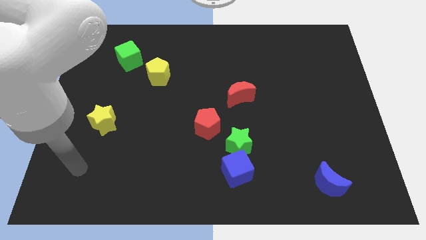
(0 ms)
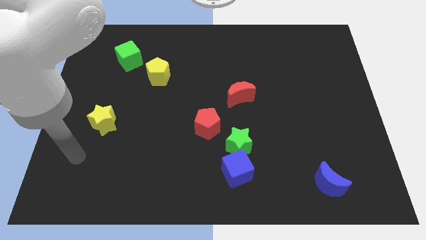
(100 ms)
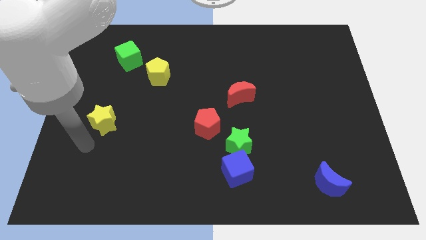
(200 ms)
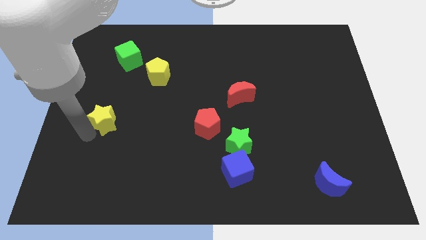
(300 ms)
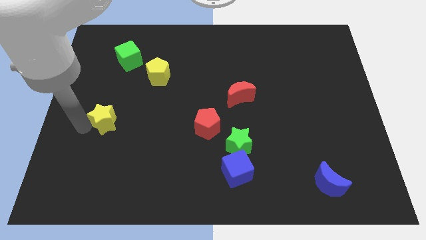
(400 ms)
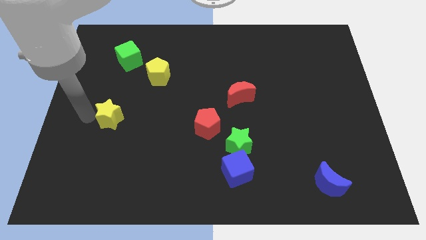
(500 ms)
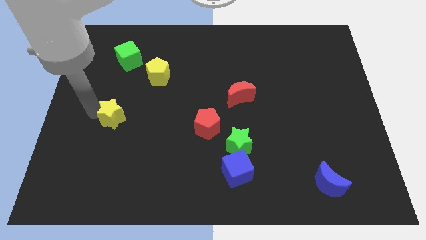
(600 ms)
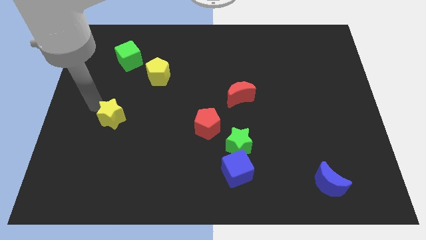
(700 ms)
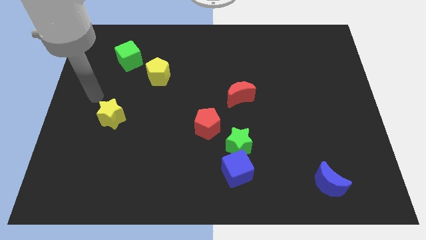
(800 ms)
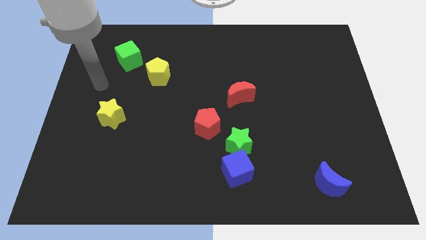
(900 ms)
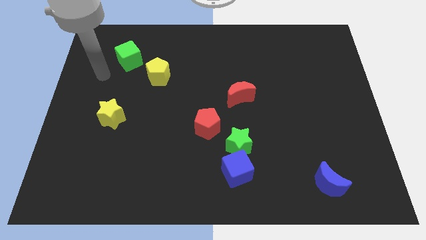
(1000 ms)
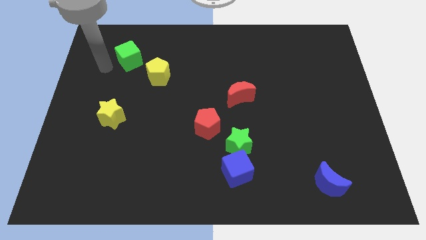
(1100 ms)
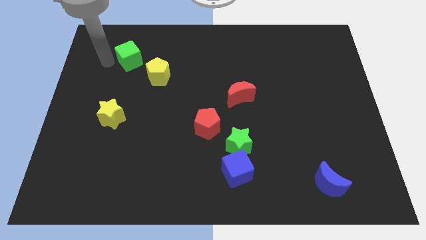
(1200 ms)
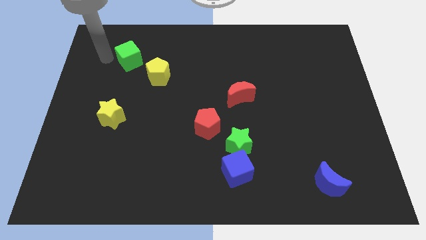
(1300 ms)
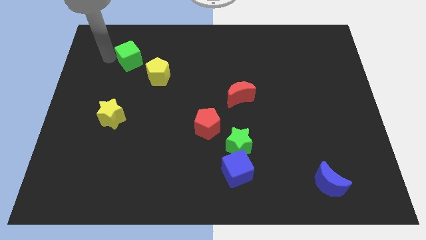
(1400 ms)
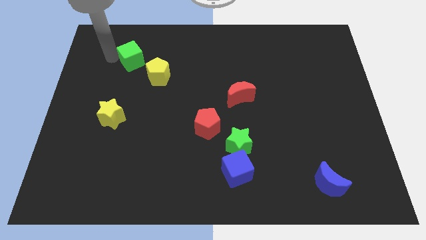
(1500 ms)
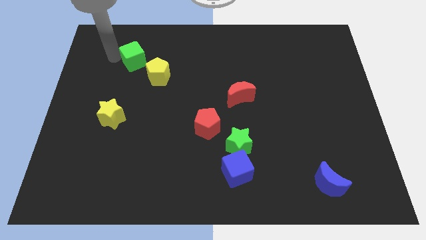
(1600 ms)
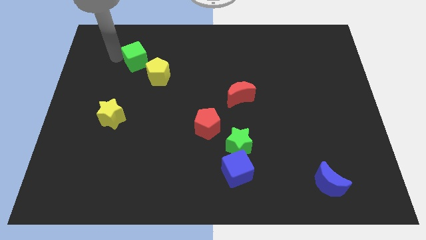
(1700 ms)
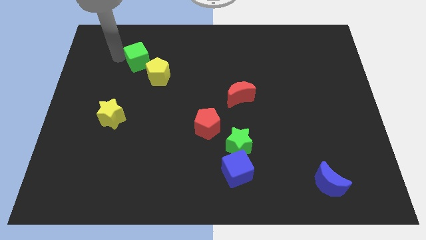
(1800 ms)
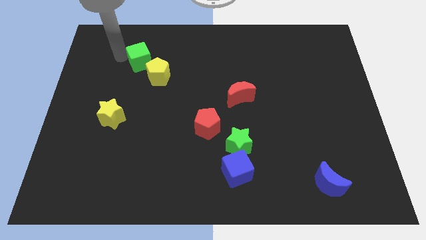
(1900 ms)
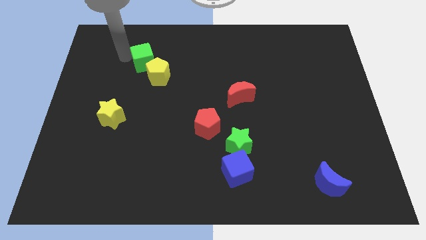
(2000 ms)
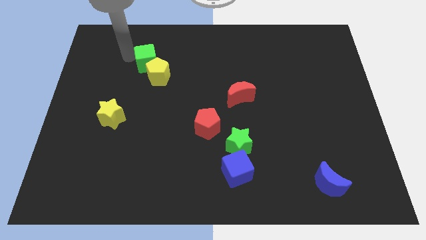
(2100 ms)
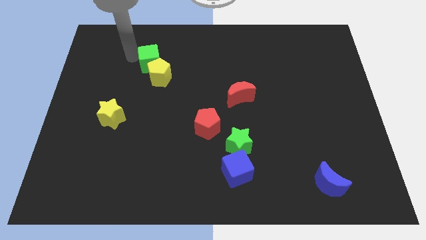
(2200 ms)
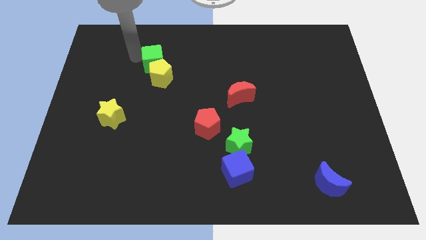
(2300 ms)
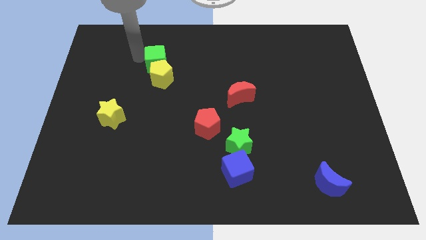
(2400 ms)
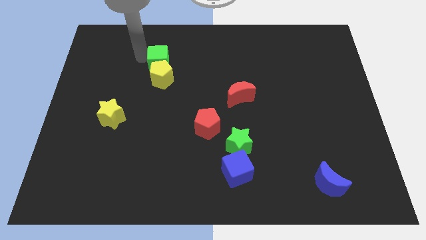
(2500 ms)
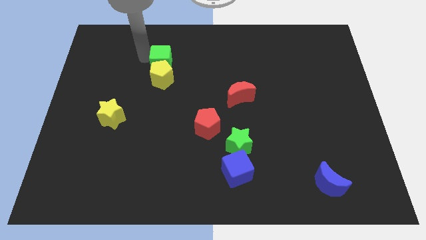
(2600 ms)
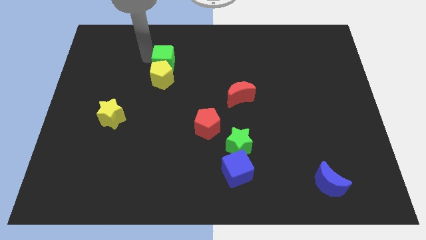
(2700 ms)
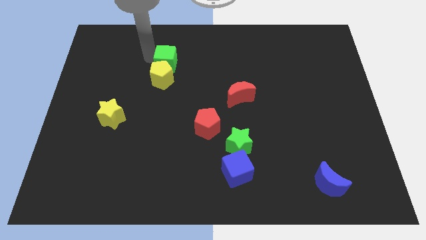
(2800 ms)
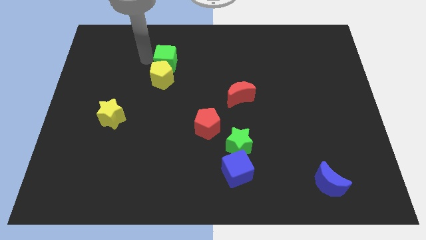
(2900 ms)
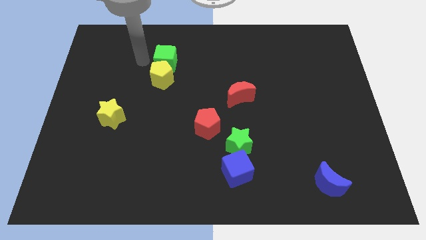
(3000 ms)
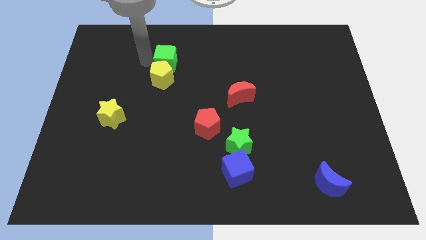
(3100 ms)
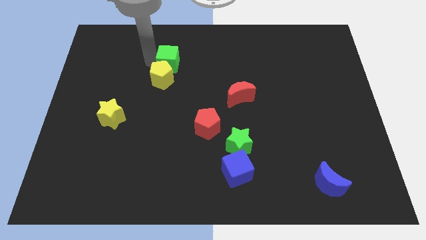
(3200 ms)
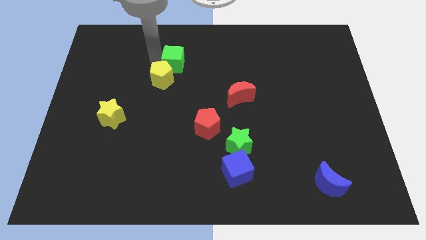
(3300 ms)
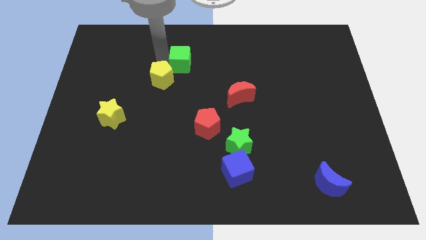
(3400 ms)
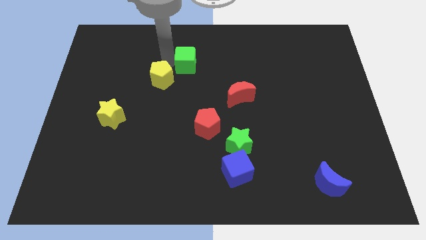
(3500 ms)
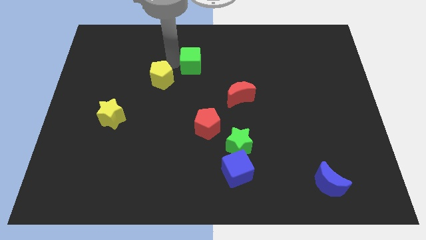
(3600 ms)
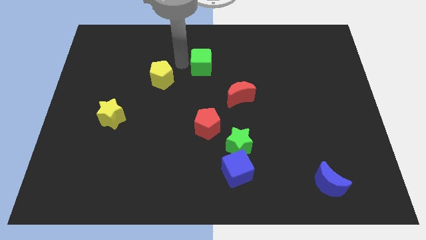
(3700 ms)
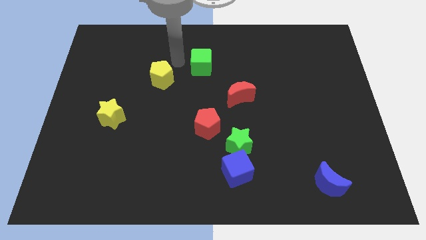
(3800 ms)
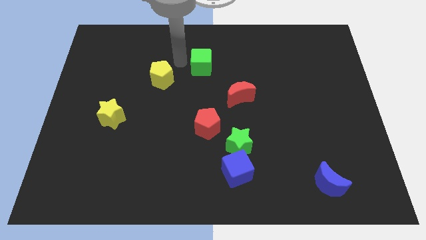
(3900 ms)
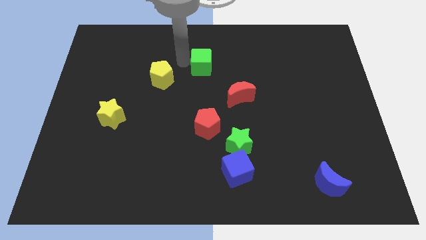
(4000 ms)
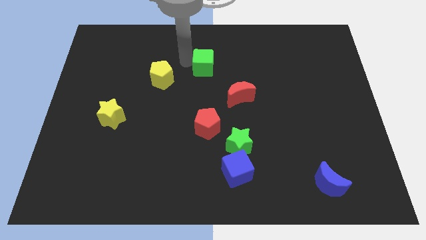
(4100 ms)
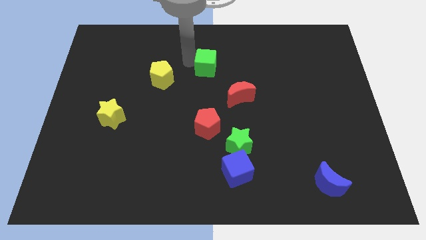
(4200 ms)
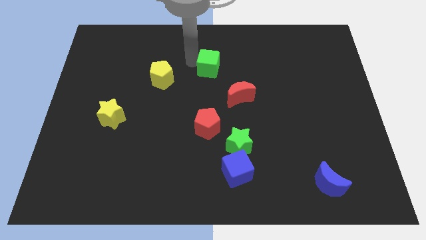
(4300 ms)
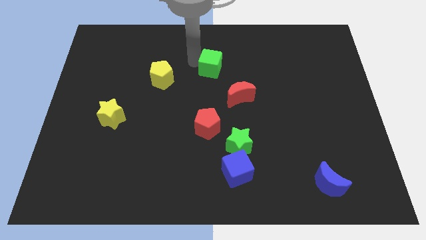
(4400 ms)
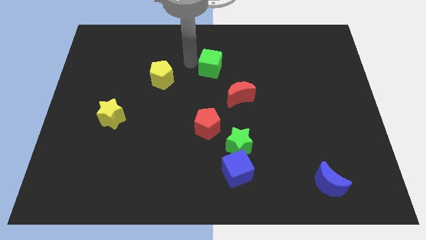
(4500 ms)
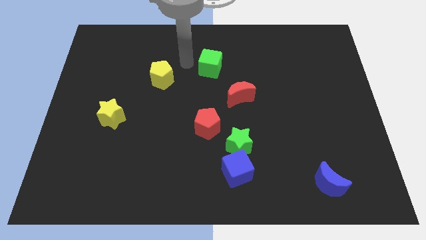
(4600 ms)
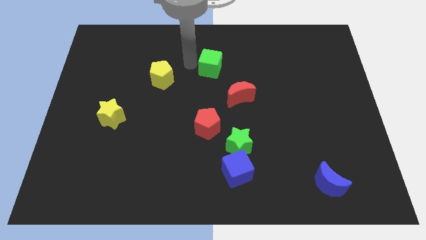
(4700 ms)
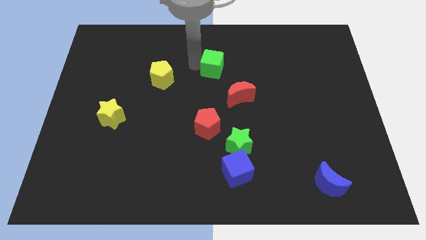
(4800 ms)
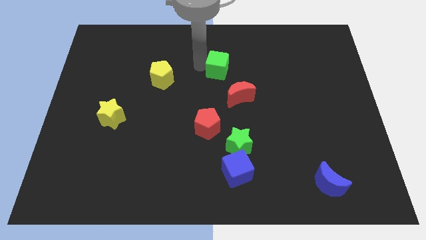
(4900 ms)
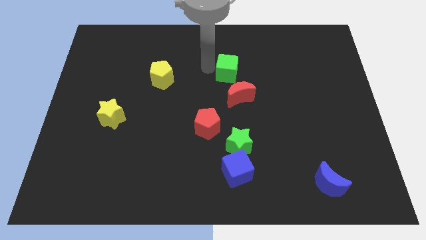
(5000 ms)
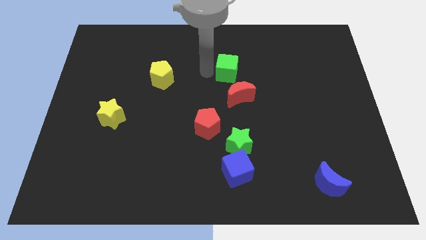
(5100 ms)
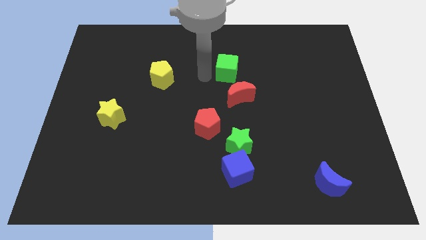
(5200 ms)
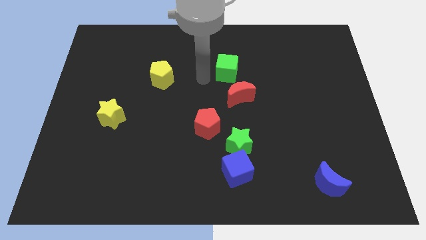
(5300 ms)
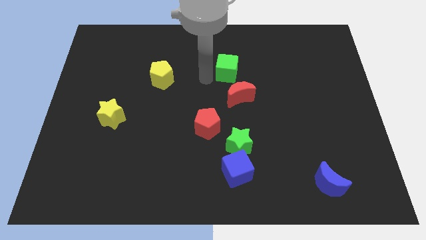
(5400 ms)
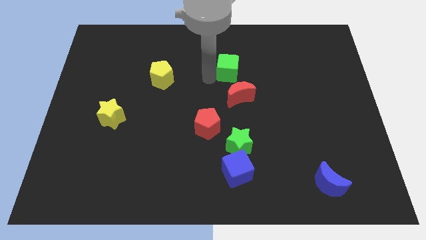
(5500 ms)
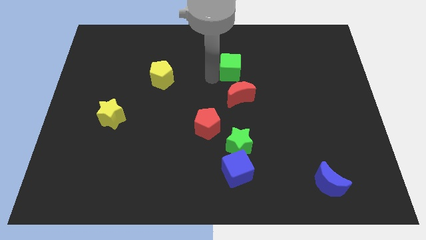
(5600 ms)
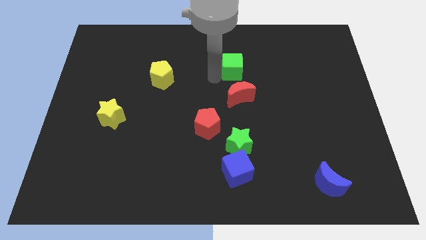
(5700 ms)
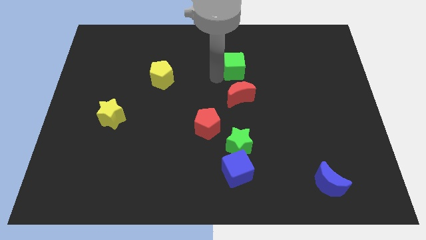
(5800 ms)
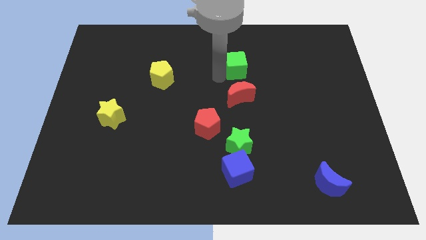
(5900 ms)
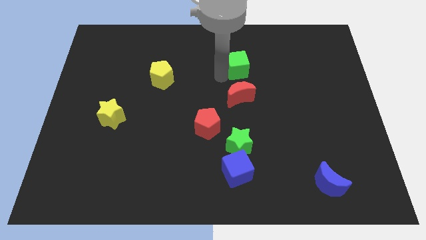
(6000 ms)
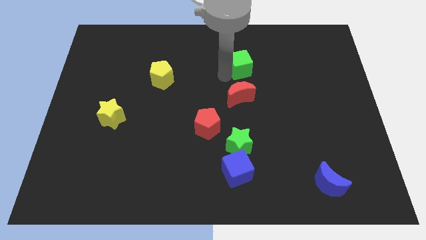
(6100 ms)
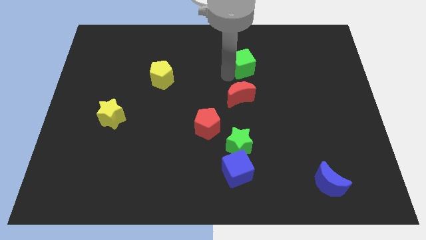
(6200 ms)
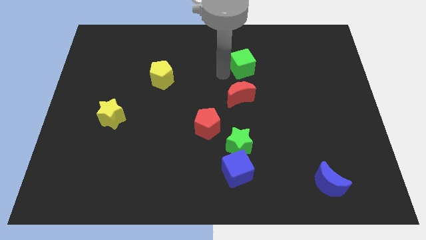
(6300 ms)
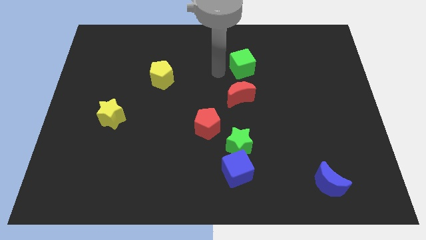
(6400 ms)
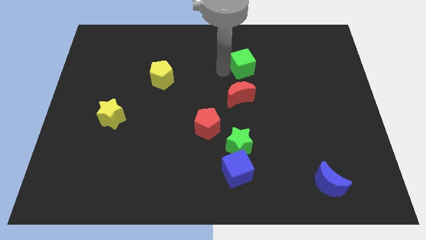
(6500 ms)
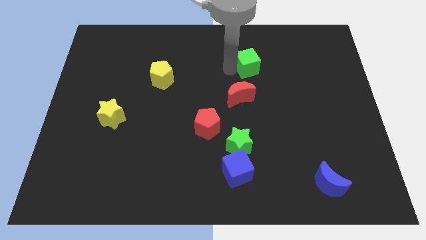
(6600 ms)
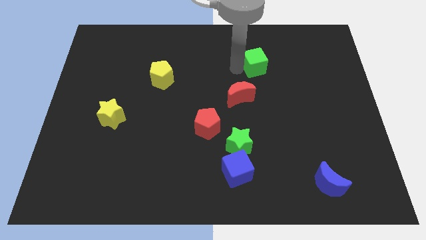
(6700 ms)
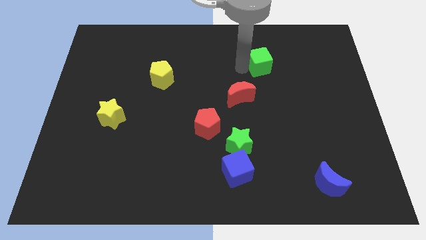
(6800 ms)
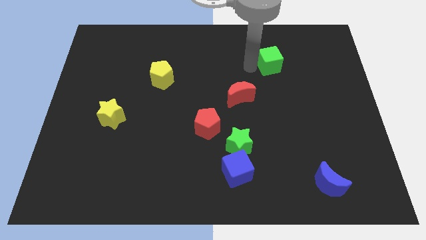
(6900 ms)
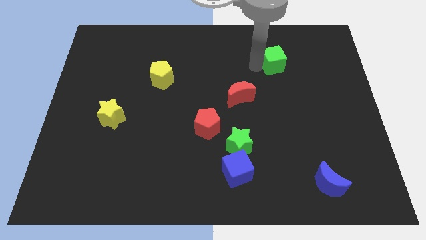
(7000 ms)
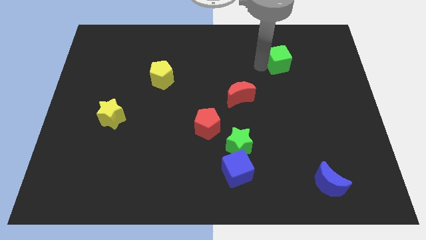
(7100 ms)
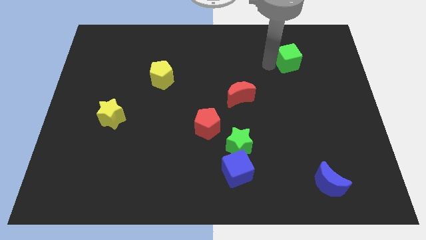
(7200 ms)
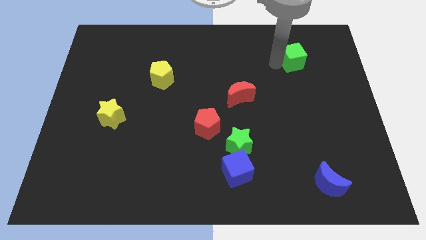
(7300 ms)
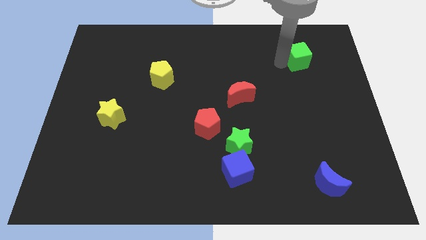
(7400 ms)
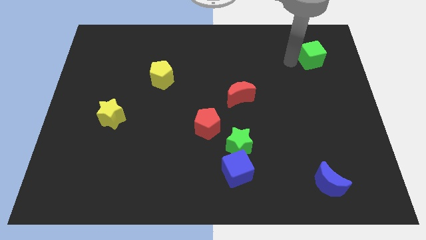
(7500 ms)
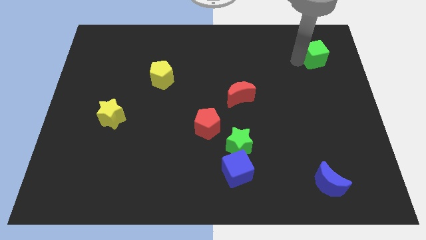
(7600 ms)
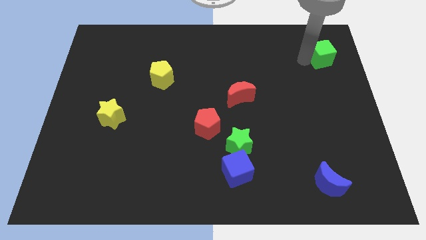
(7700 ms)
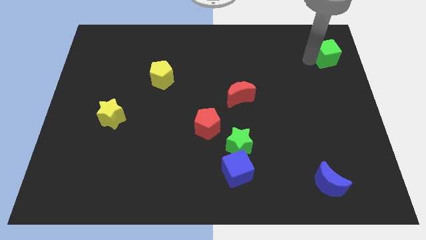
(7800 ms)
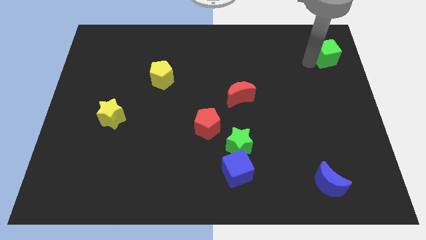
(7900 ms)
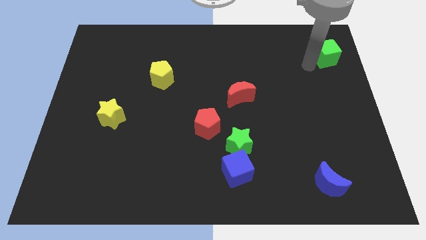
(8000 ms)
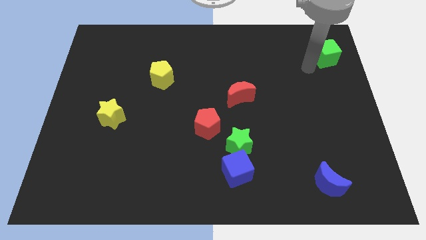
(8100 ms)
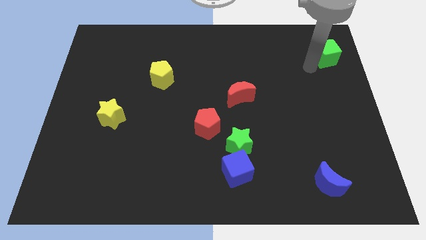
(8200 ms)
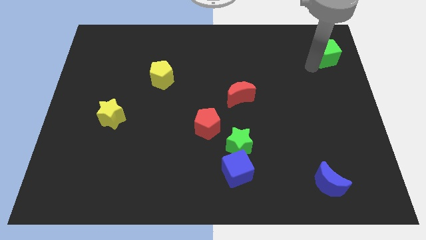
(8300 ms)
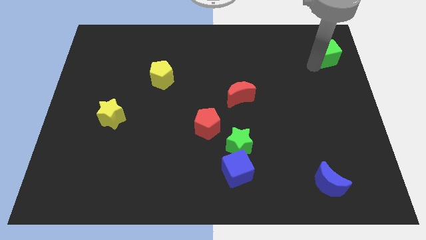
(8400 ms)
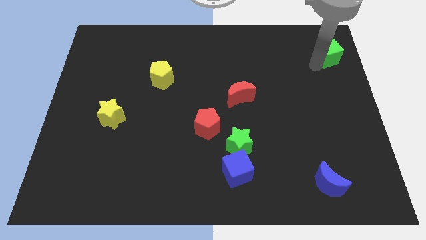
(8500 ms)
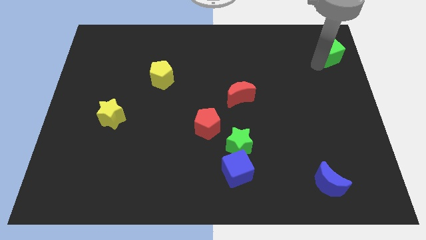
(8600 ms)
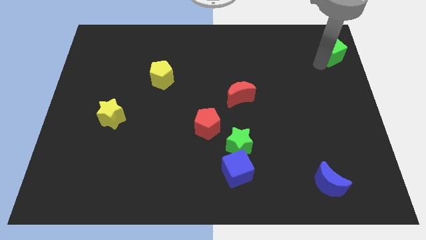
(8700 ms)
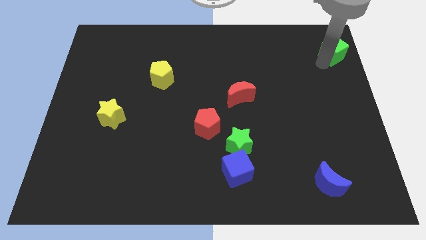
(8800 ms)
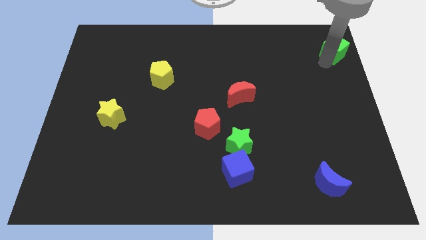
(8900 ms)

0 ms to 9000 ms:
put the green cube to the top right
